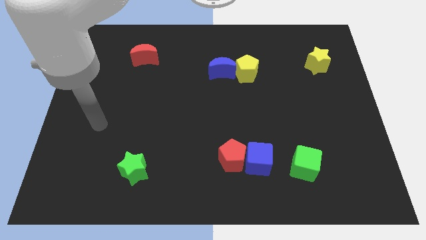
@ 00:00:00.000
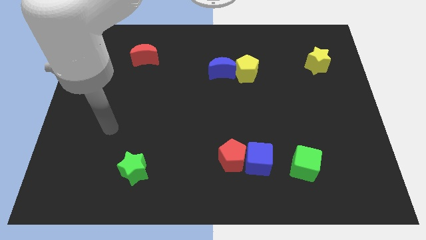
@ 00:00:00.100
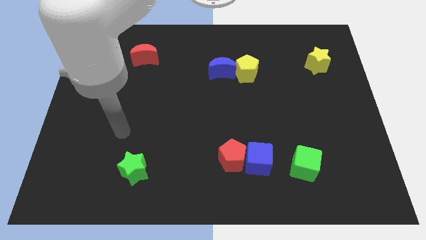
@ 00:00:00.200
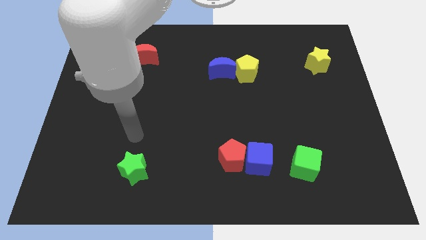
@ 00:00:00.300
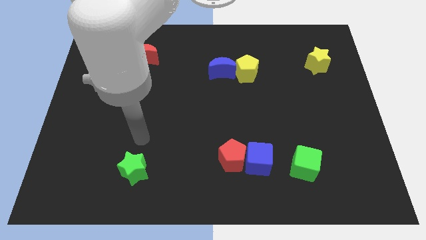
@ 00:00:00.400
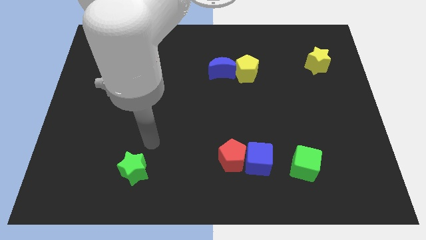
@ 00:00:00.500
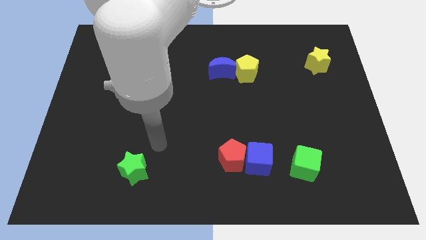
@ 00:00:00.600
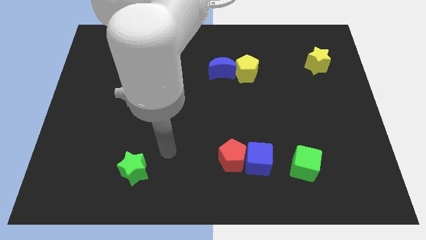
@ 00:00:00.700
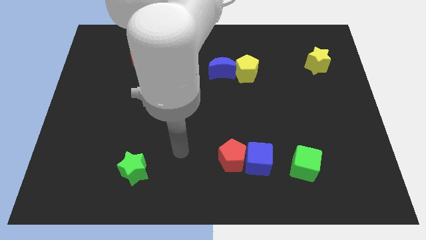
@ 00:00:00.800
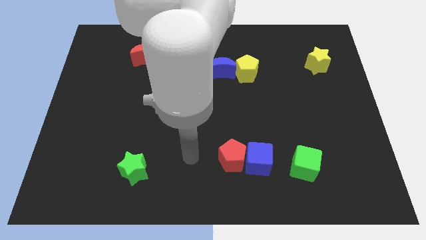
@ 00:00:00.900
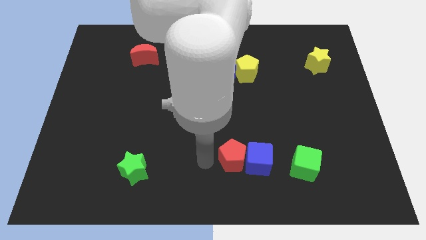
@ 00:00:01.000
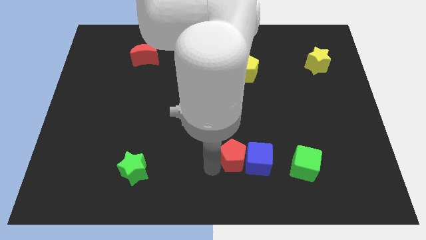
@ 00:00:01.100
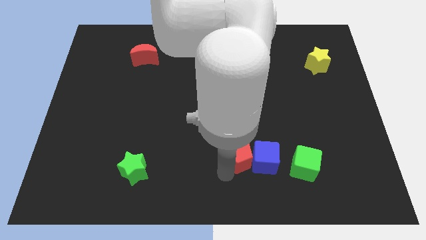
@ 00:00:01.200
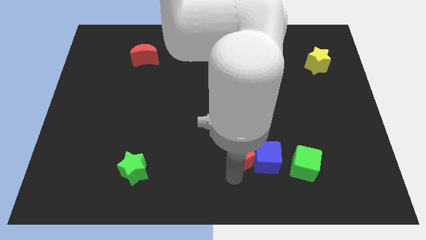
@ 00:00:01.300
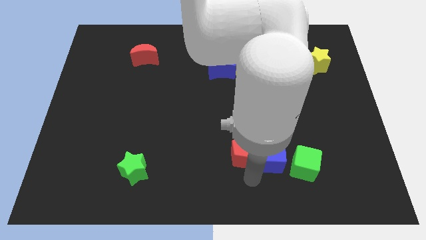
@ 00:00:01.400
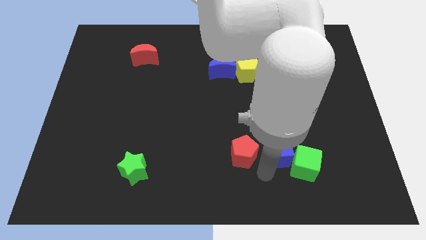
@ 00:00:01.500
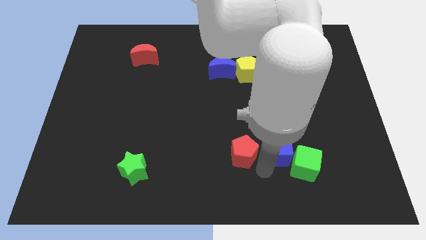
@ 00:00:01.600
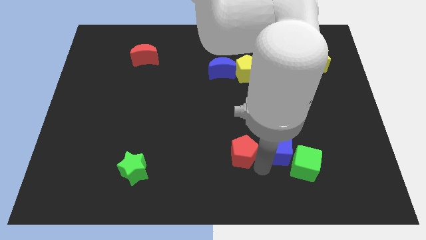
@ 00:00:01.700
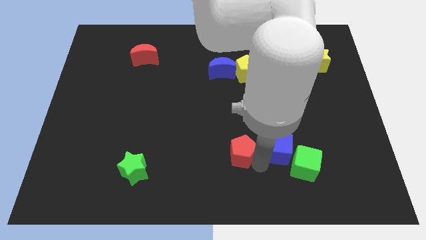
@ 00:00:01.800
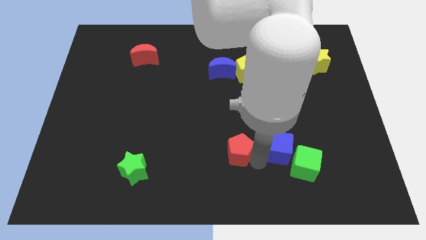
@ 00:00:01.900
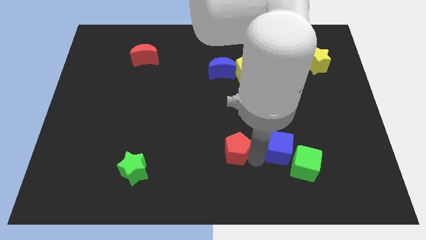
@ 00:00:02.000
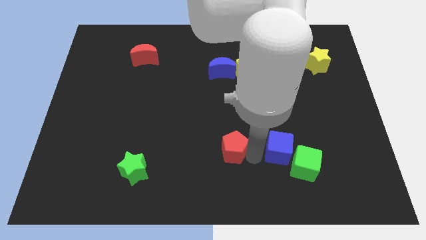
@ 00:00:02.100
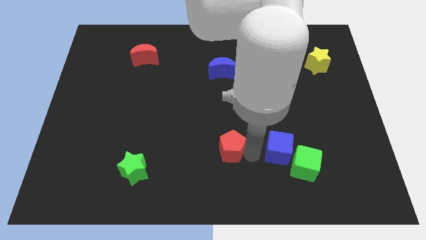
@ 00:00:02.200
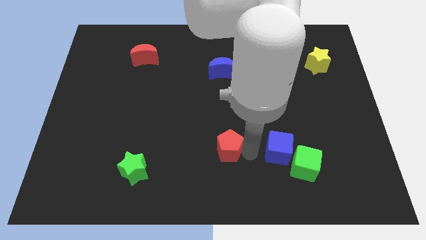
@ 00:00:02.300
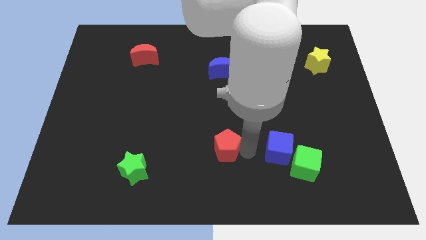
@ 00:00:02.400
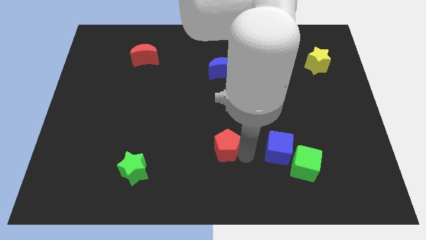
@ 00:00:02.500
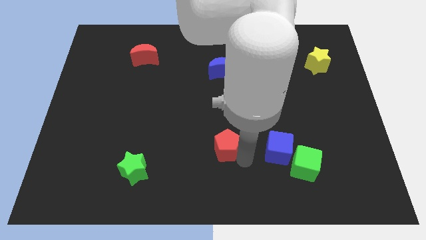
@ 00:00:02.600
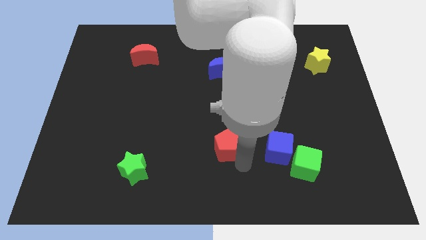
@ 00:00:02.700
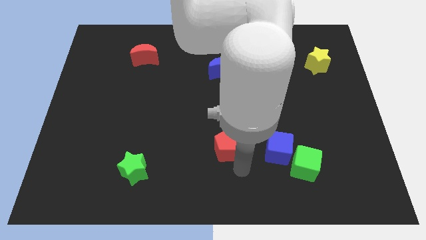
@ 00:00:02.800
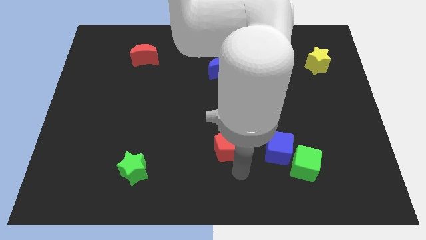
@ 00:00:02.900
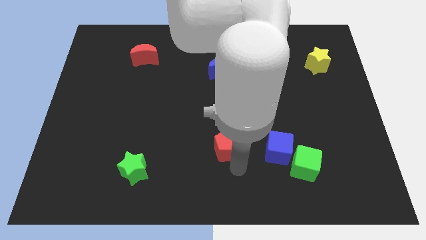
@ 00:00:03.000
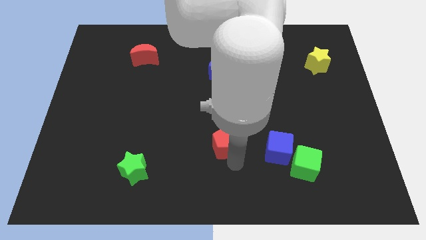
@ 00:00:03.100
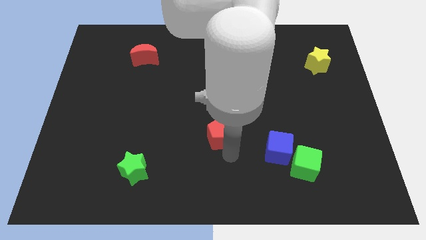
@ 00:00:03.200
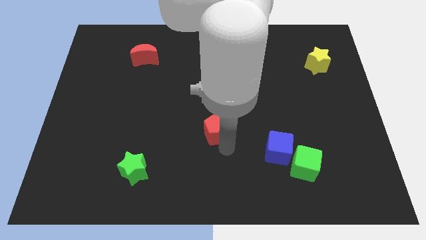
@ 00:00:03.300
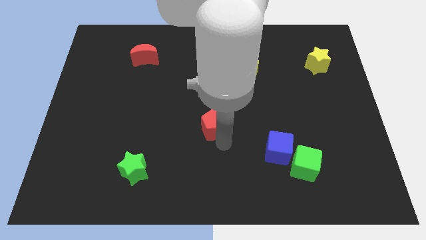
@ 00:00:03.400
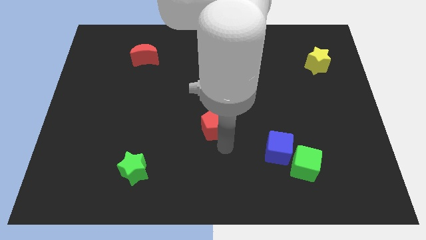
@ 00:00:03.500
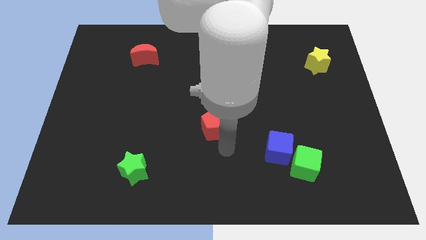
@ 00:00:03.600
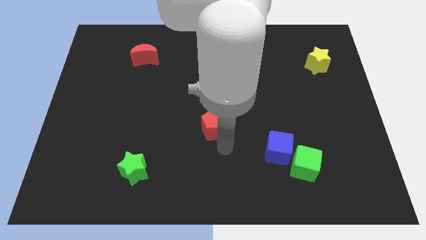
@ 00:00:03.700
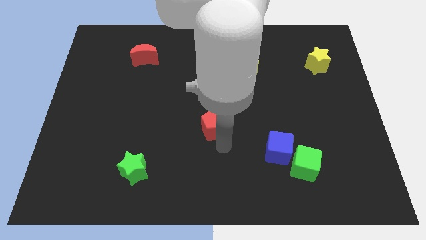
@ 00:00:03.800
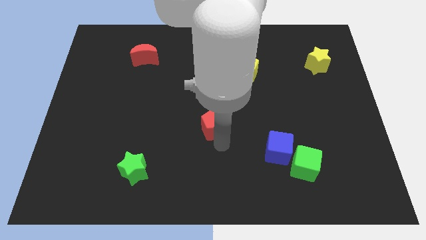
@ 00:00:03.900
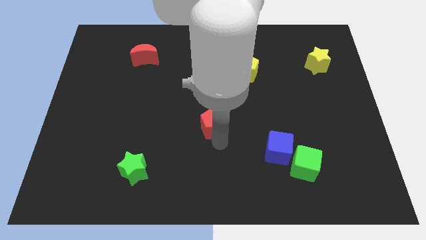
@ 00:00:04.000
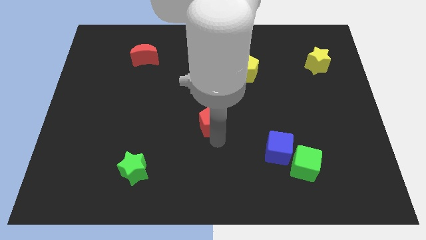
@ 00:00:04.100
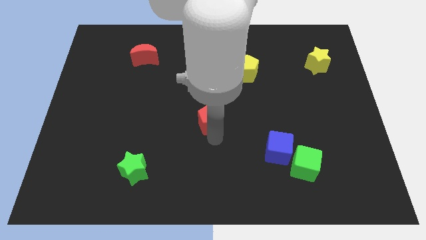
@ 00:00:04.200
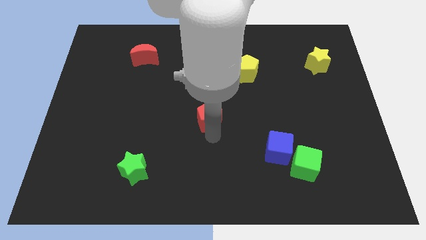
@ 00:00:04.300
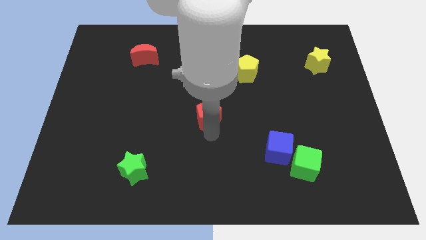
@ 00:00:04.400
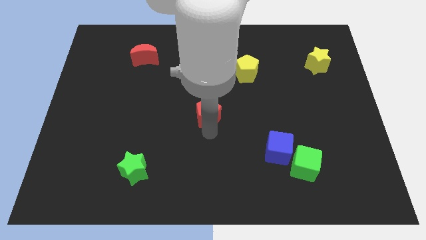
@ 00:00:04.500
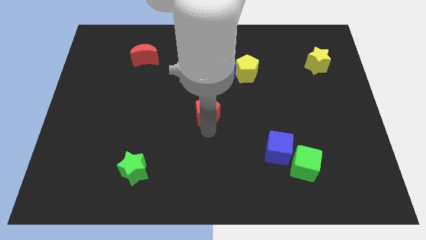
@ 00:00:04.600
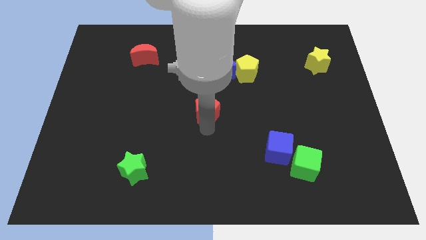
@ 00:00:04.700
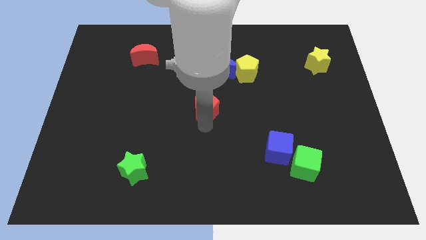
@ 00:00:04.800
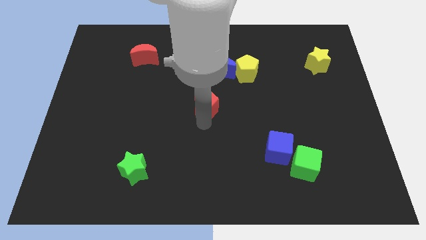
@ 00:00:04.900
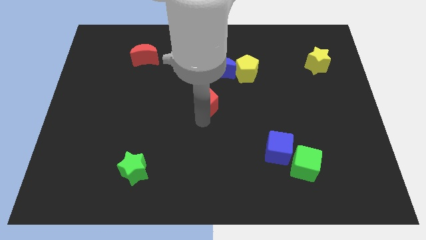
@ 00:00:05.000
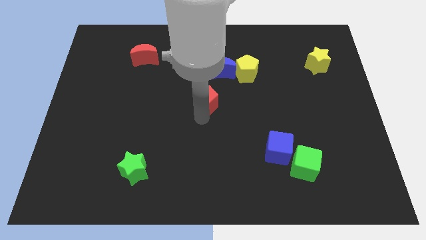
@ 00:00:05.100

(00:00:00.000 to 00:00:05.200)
push the red pentagon to the bottom left of the blue moon
